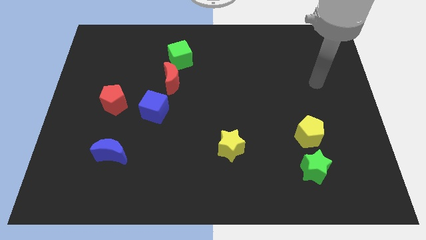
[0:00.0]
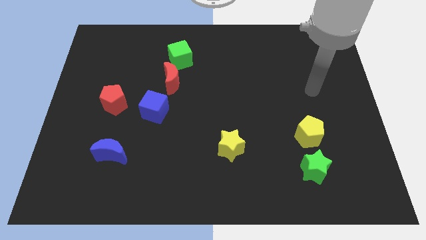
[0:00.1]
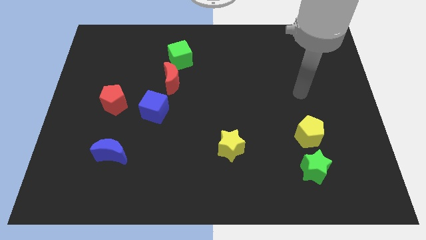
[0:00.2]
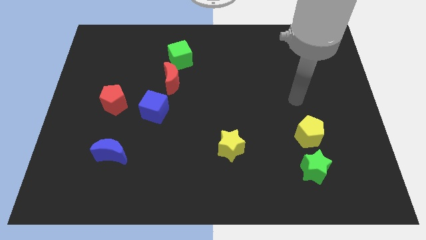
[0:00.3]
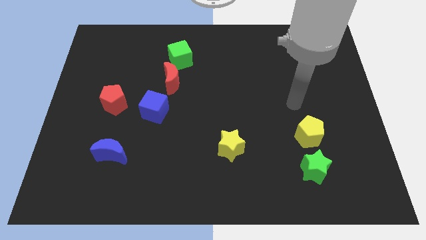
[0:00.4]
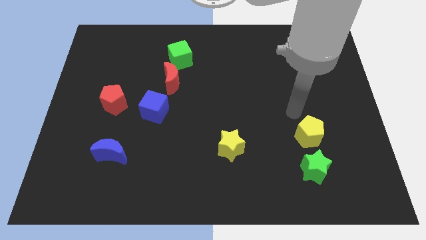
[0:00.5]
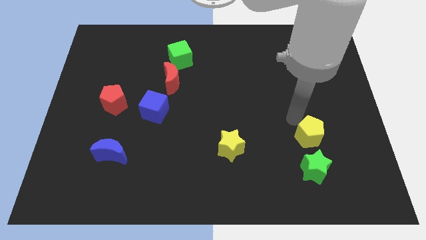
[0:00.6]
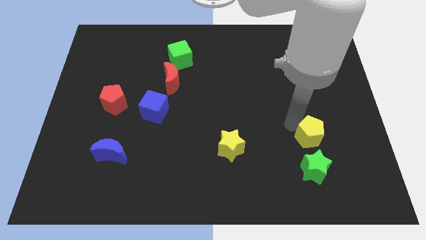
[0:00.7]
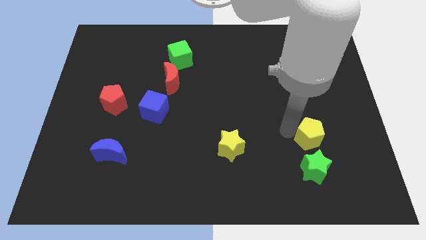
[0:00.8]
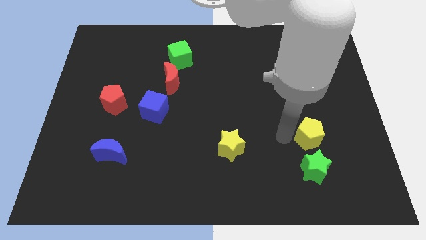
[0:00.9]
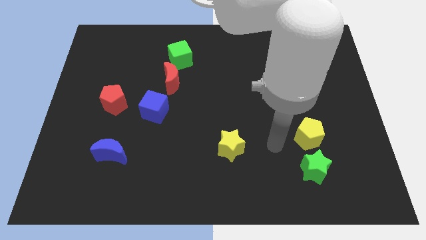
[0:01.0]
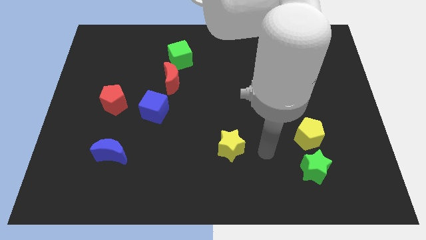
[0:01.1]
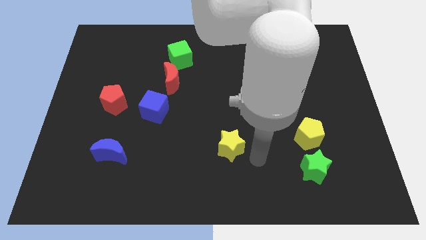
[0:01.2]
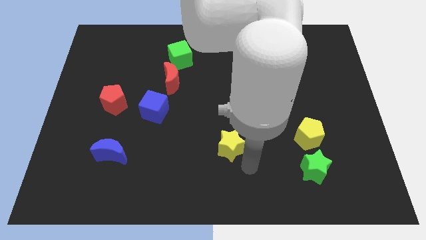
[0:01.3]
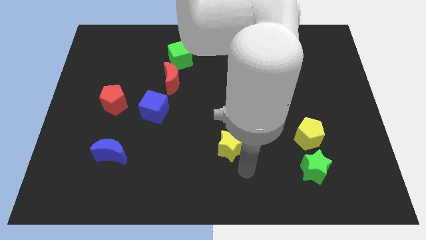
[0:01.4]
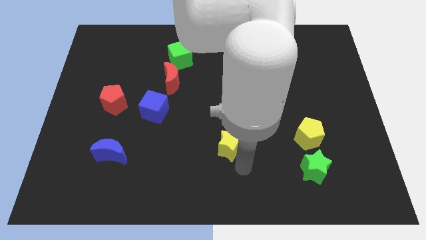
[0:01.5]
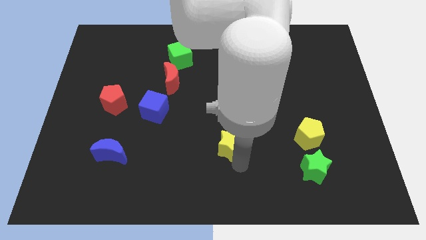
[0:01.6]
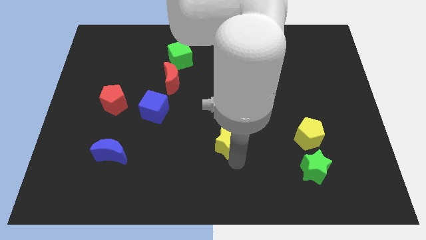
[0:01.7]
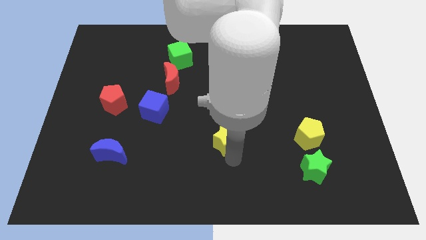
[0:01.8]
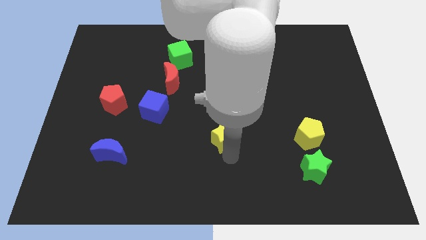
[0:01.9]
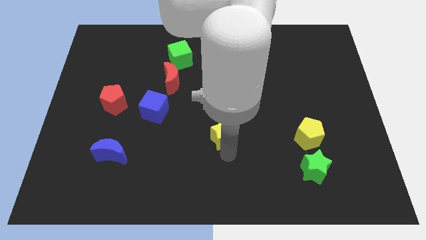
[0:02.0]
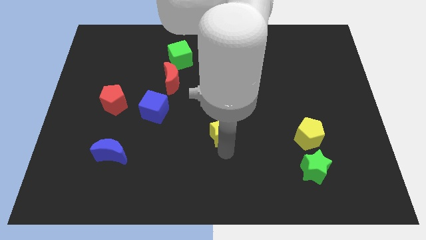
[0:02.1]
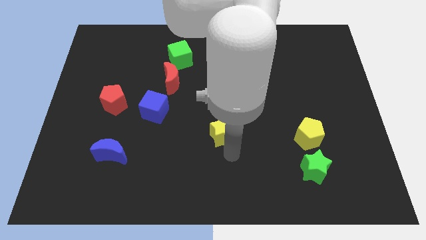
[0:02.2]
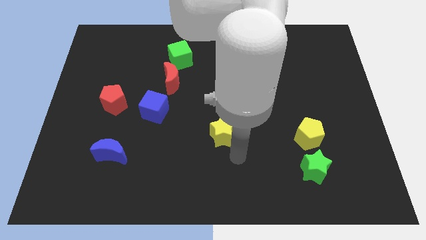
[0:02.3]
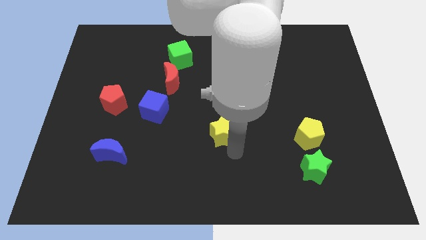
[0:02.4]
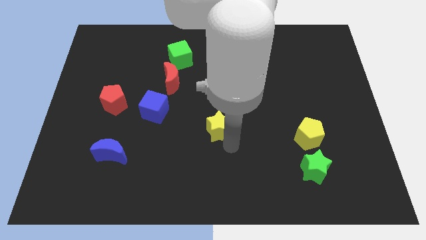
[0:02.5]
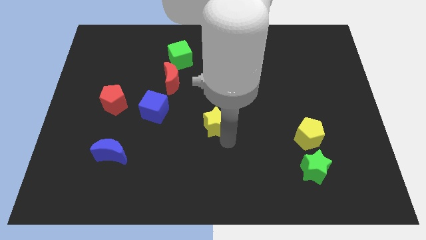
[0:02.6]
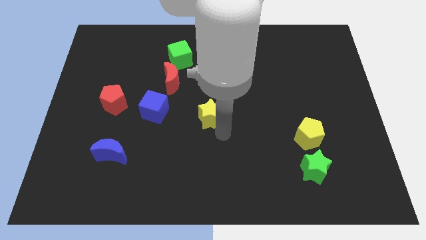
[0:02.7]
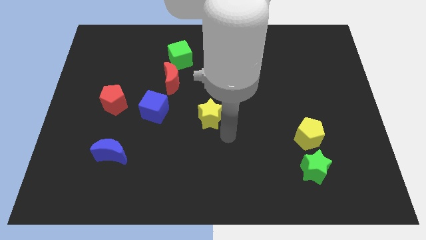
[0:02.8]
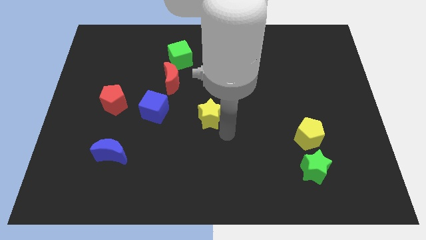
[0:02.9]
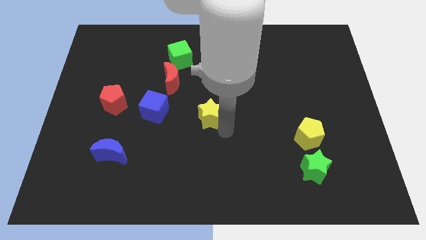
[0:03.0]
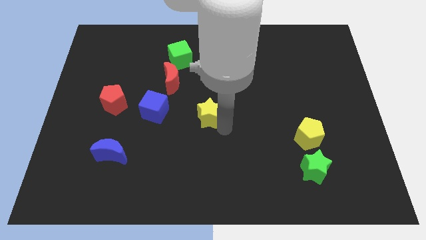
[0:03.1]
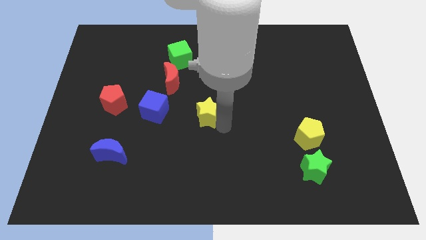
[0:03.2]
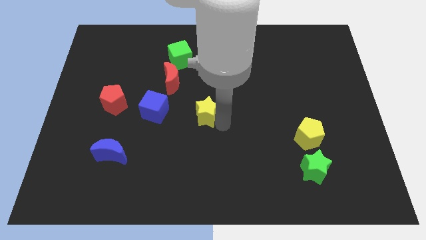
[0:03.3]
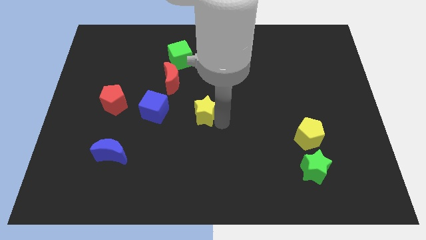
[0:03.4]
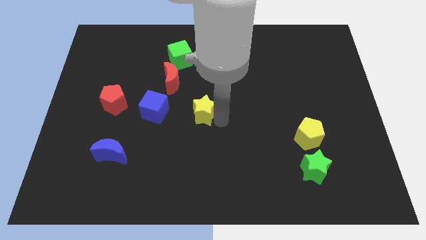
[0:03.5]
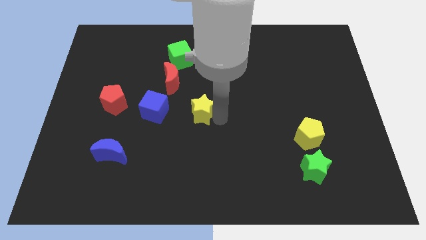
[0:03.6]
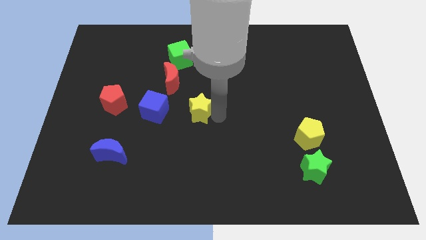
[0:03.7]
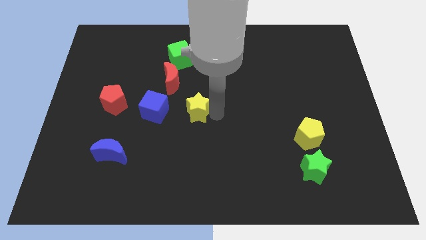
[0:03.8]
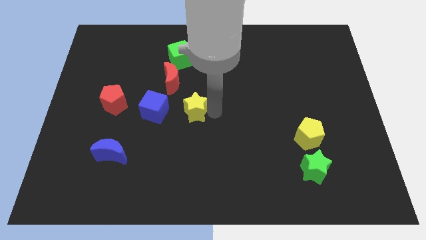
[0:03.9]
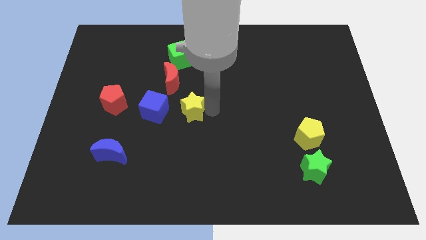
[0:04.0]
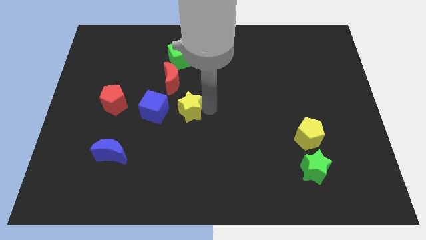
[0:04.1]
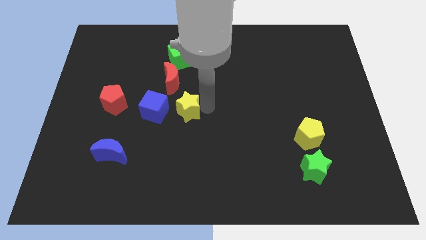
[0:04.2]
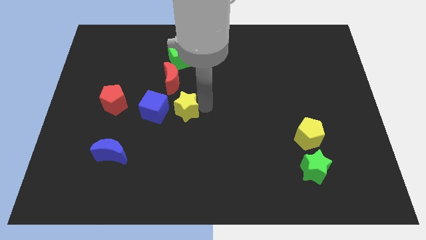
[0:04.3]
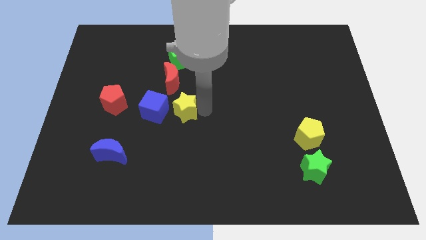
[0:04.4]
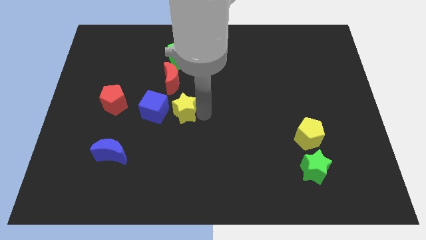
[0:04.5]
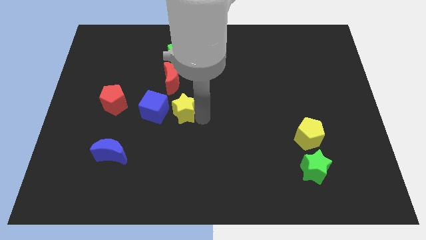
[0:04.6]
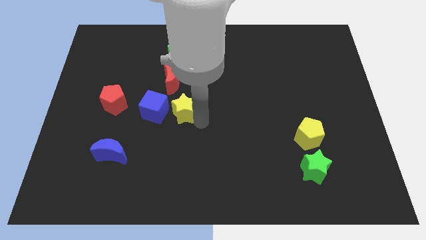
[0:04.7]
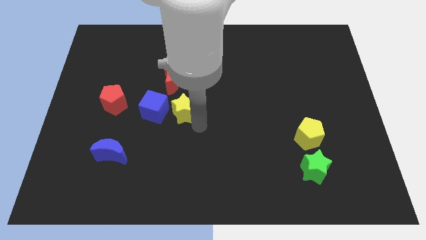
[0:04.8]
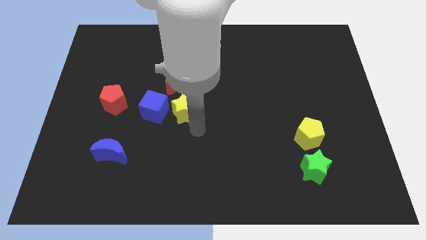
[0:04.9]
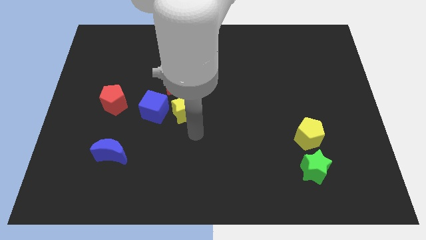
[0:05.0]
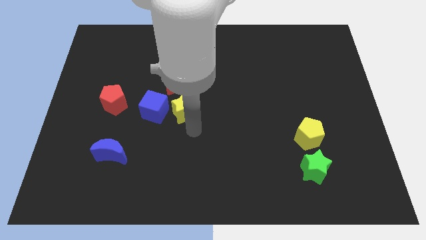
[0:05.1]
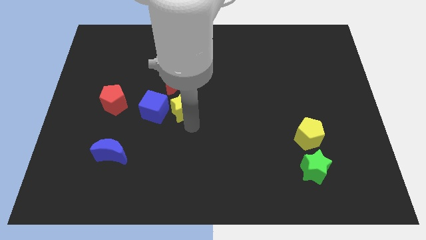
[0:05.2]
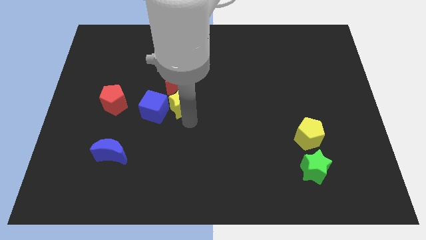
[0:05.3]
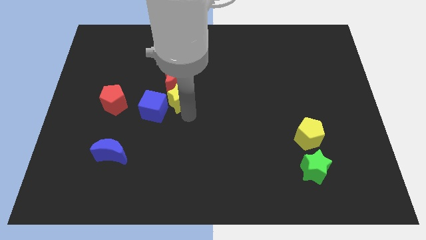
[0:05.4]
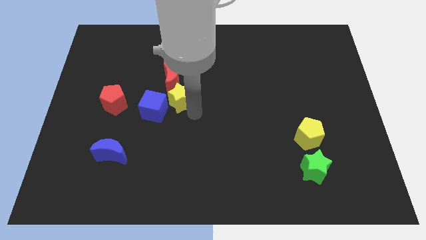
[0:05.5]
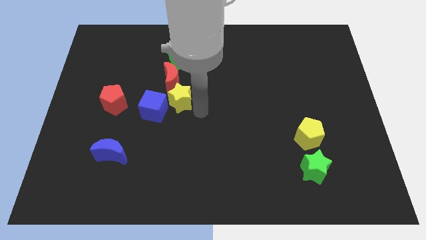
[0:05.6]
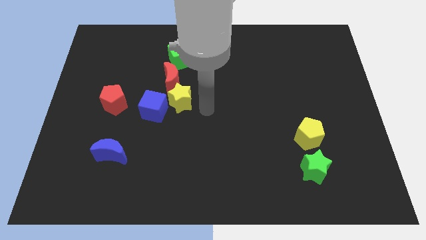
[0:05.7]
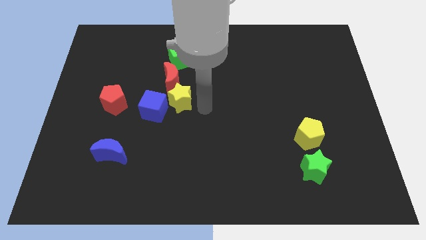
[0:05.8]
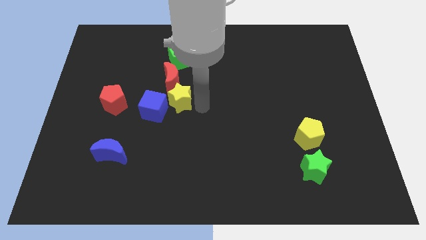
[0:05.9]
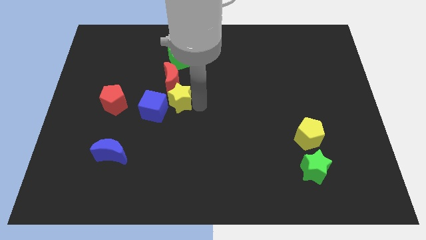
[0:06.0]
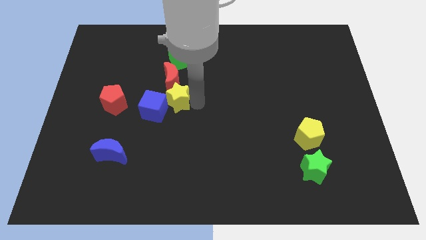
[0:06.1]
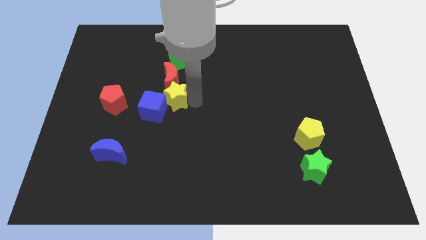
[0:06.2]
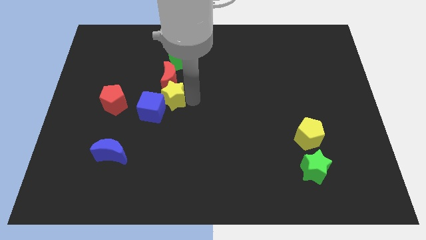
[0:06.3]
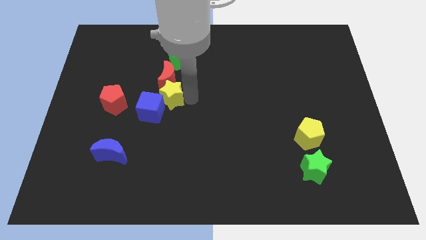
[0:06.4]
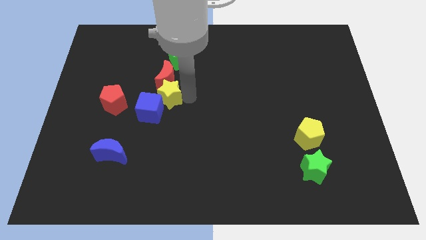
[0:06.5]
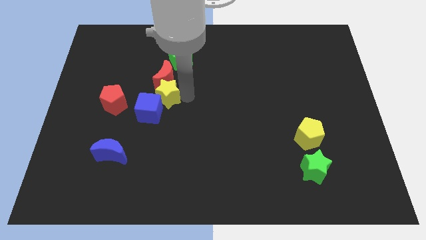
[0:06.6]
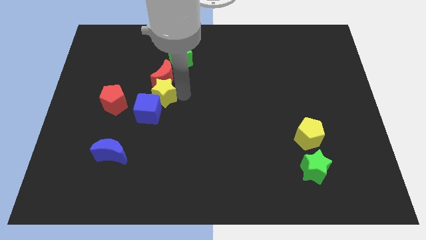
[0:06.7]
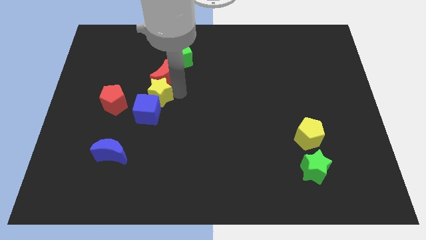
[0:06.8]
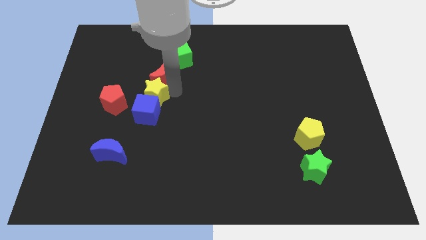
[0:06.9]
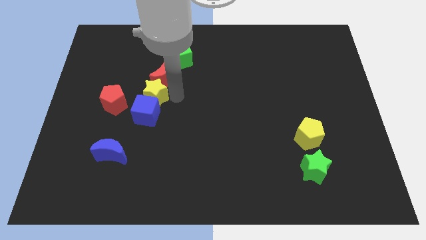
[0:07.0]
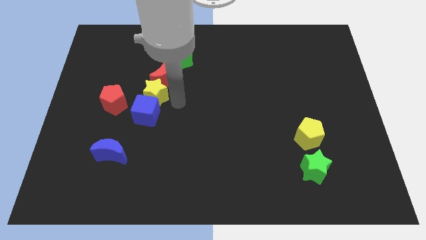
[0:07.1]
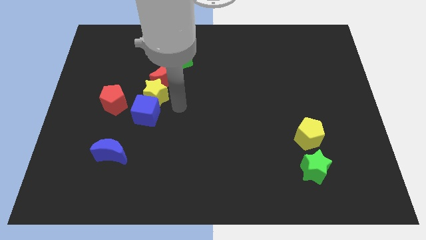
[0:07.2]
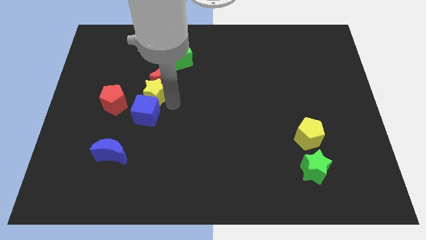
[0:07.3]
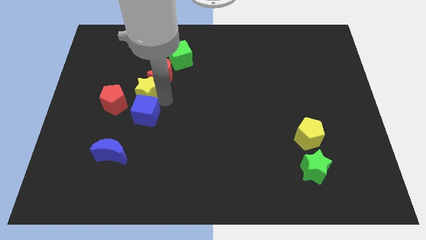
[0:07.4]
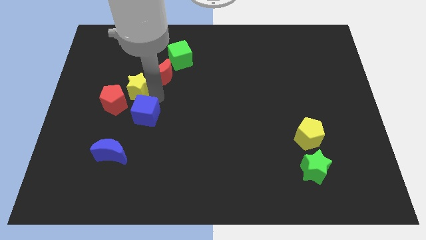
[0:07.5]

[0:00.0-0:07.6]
push the yellow star left of the red moon
